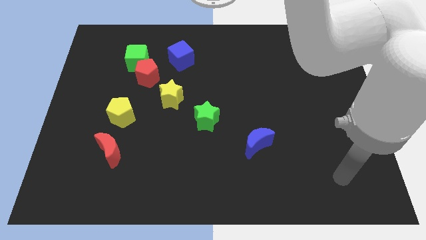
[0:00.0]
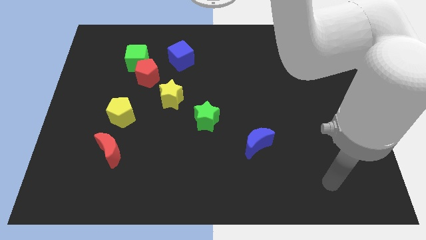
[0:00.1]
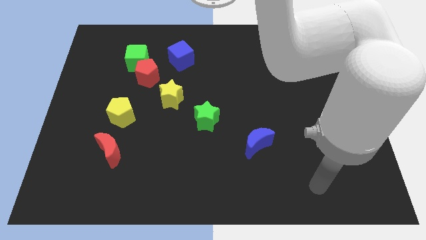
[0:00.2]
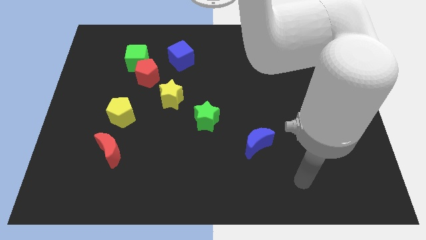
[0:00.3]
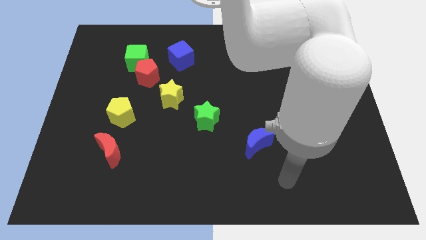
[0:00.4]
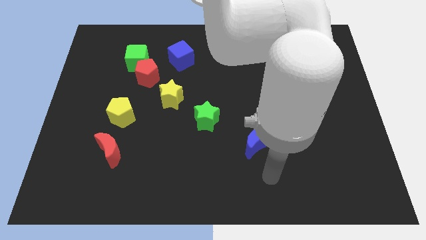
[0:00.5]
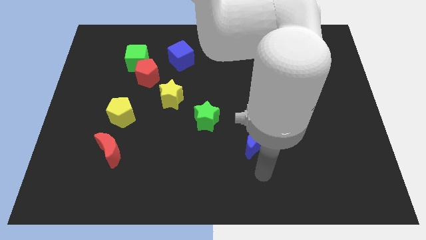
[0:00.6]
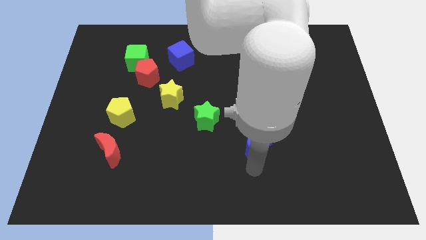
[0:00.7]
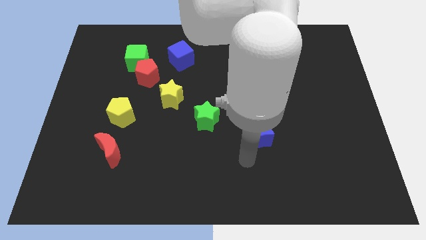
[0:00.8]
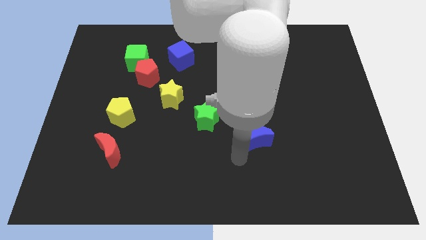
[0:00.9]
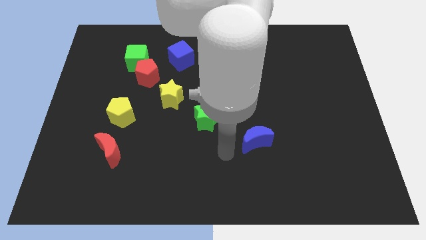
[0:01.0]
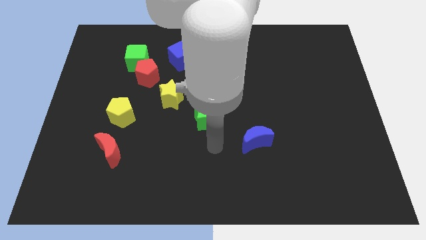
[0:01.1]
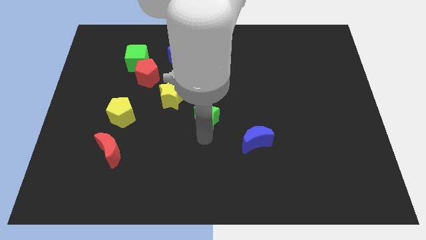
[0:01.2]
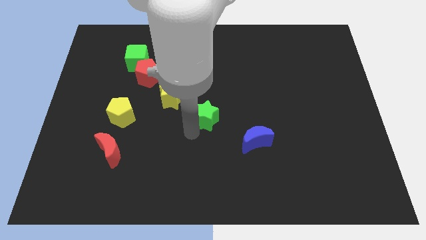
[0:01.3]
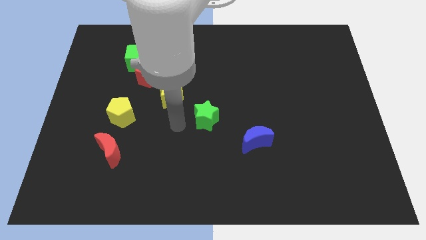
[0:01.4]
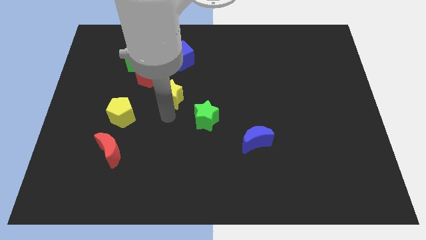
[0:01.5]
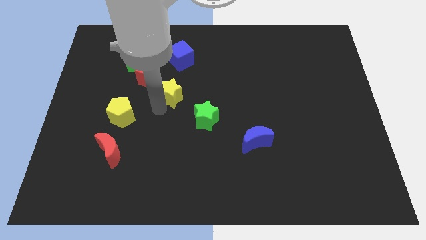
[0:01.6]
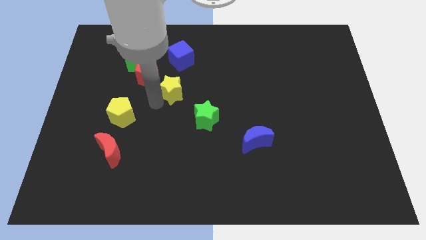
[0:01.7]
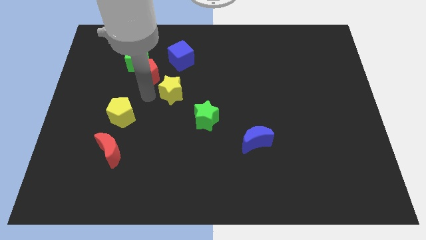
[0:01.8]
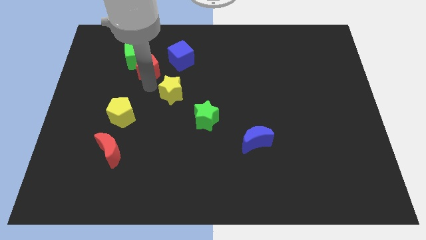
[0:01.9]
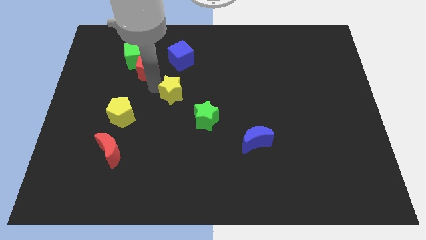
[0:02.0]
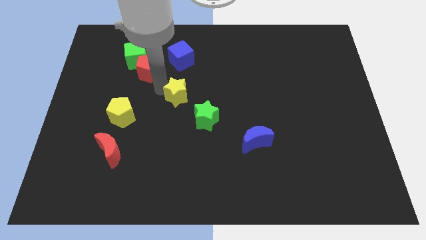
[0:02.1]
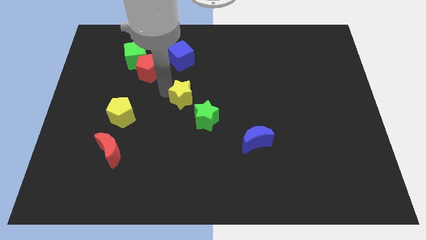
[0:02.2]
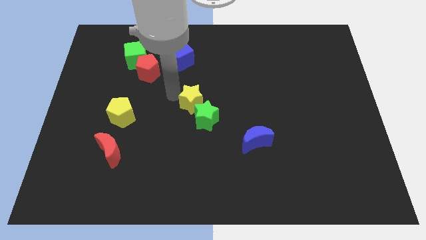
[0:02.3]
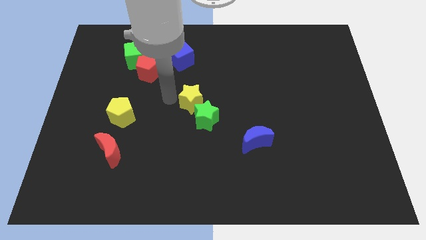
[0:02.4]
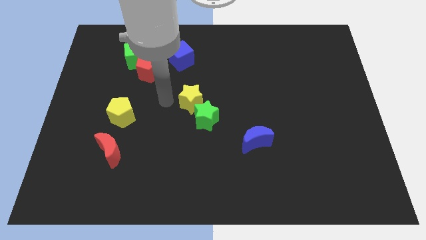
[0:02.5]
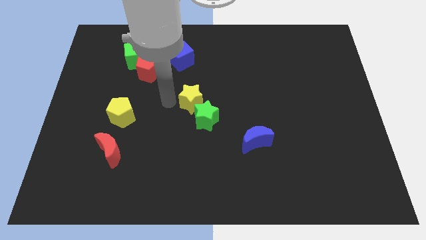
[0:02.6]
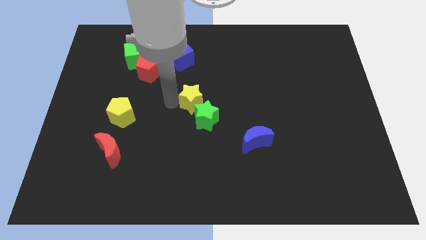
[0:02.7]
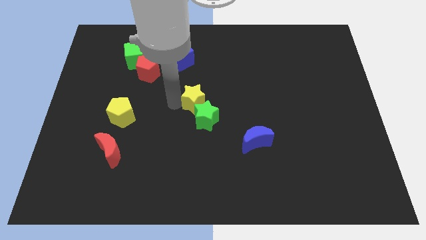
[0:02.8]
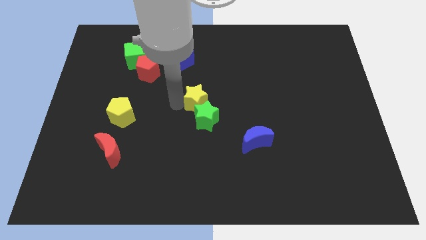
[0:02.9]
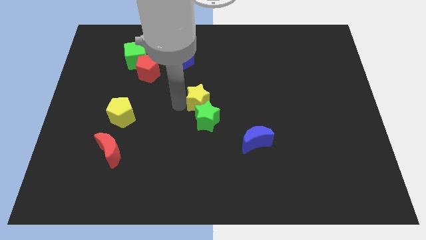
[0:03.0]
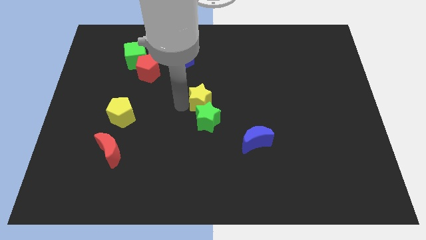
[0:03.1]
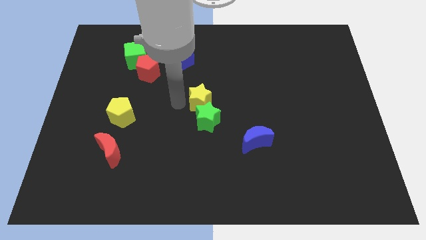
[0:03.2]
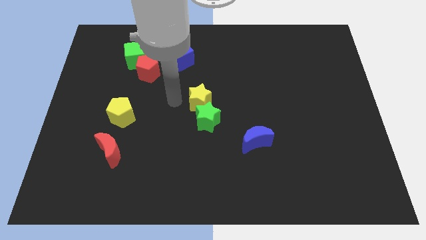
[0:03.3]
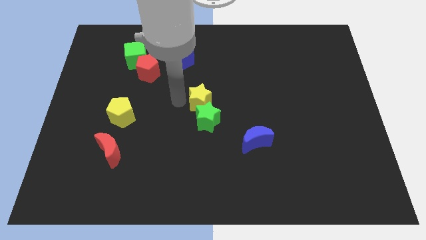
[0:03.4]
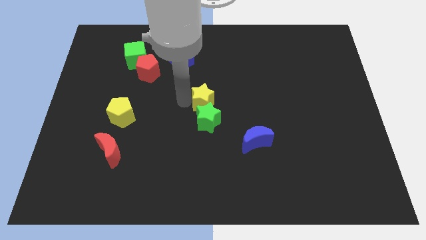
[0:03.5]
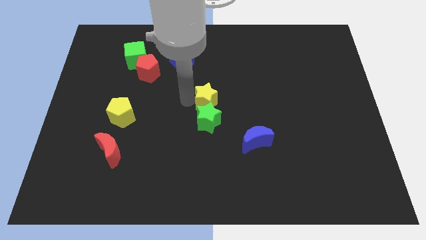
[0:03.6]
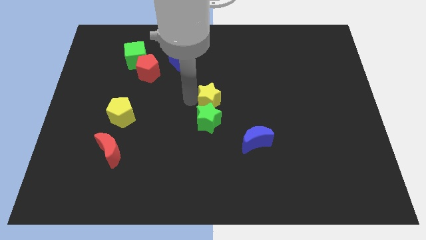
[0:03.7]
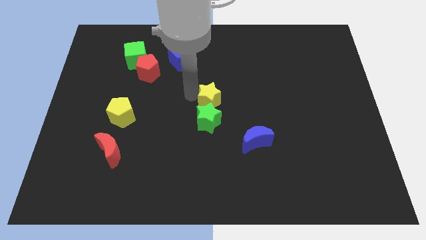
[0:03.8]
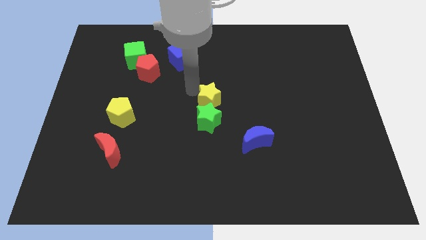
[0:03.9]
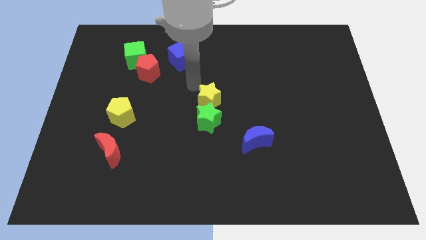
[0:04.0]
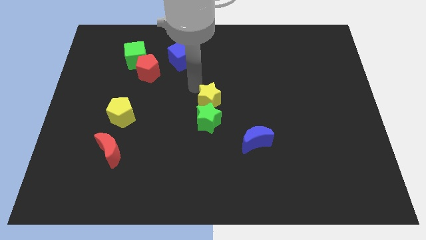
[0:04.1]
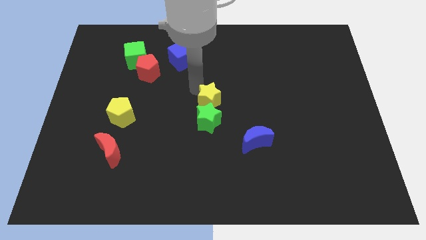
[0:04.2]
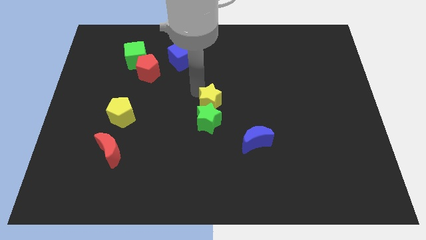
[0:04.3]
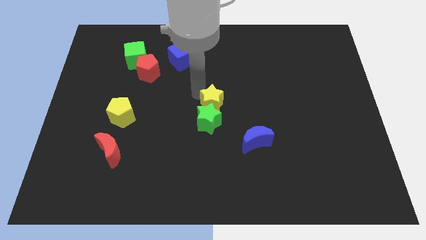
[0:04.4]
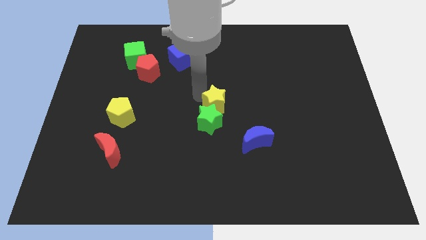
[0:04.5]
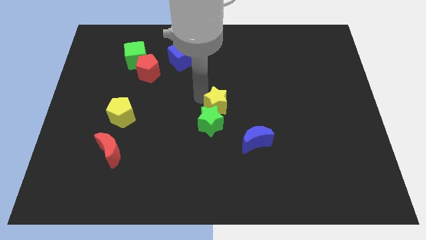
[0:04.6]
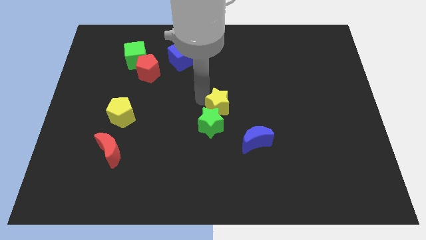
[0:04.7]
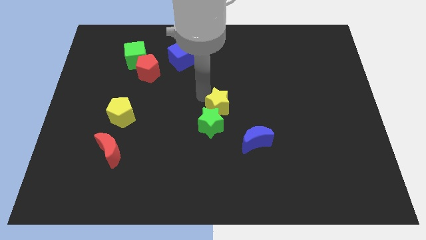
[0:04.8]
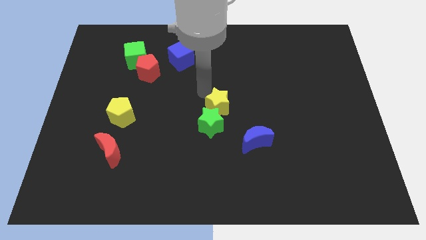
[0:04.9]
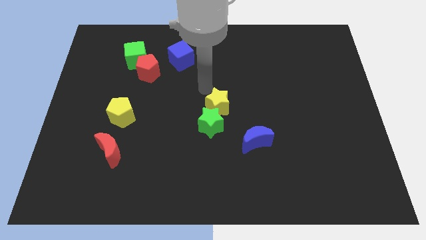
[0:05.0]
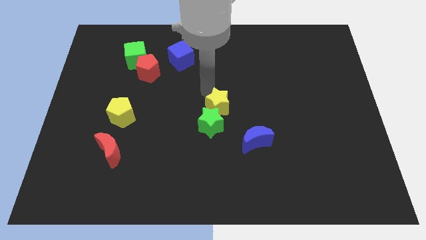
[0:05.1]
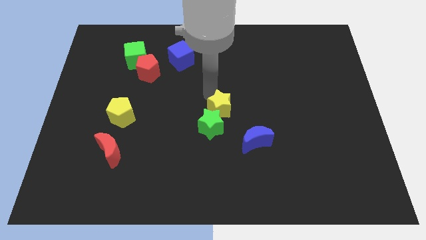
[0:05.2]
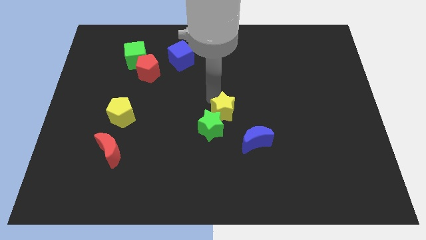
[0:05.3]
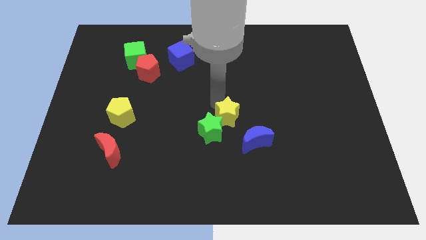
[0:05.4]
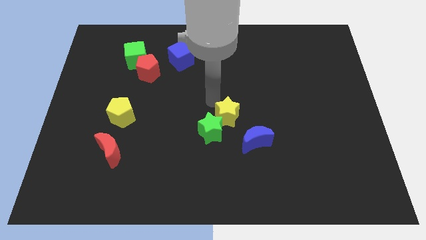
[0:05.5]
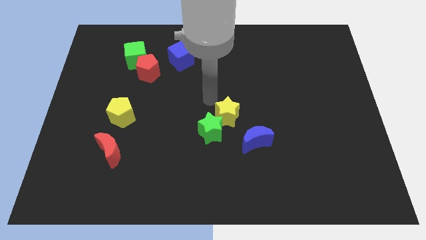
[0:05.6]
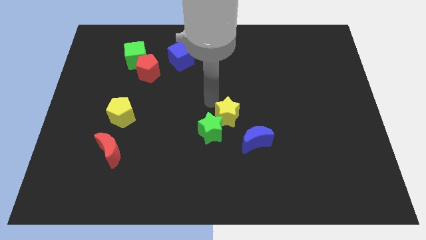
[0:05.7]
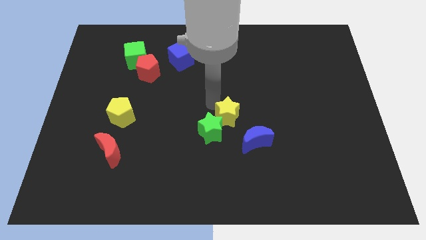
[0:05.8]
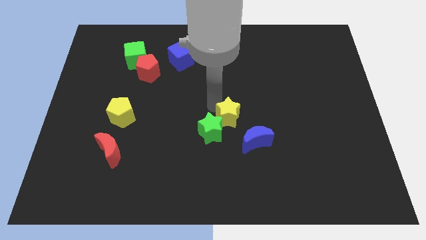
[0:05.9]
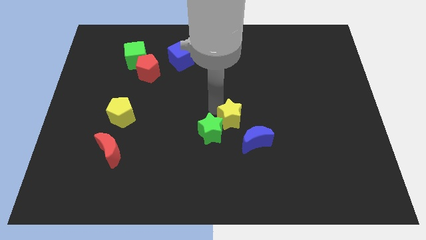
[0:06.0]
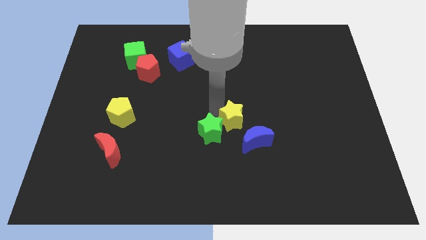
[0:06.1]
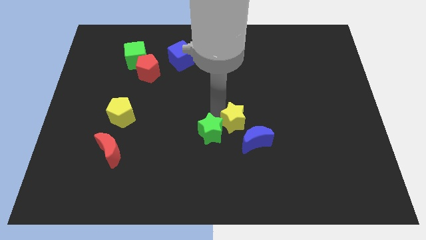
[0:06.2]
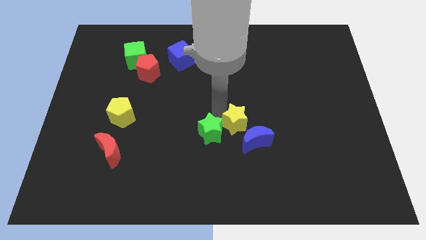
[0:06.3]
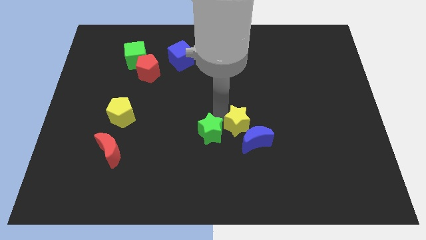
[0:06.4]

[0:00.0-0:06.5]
push the yellow star to the blue moon
